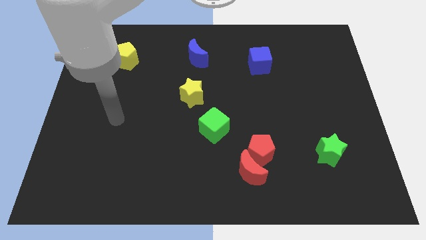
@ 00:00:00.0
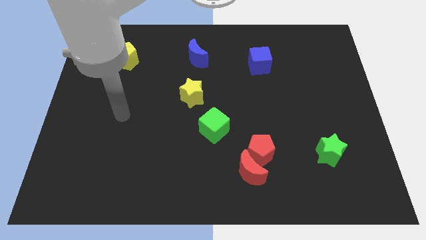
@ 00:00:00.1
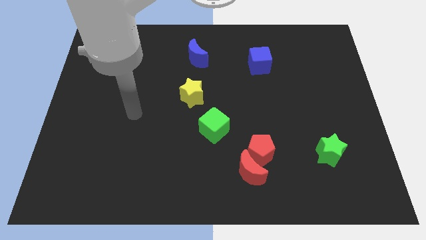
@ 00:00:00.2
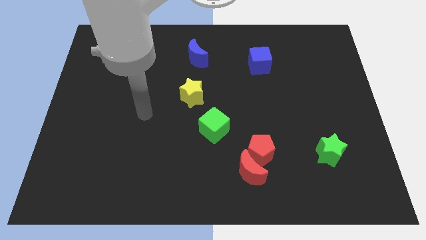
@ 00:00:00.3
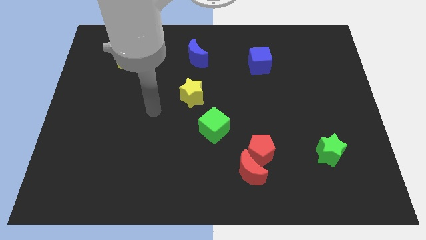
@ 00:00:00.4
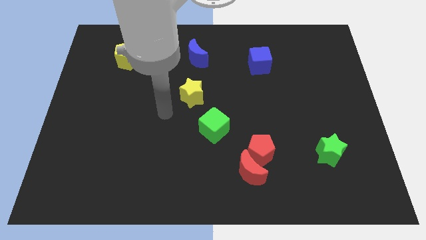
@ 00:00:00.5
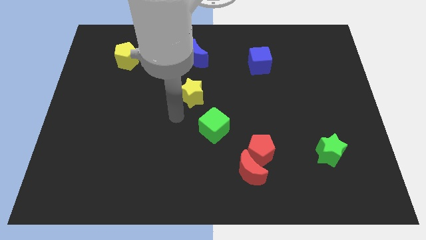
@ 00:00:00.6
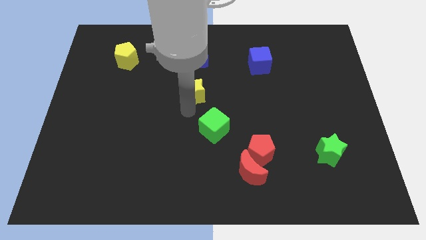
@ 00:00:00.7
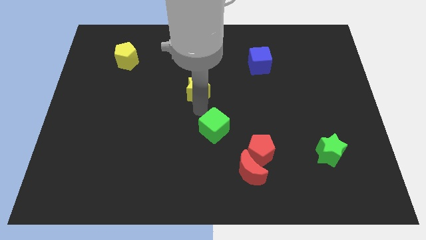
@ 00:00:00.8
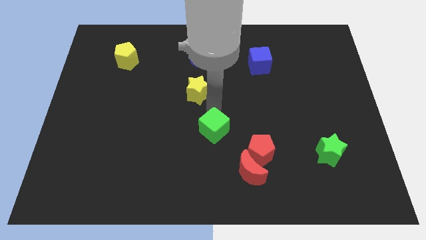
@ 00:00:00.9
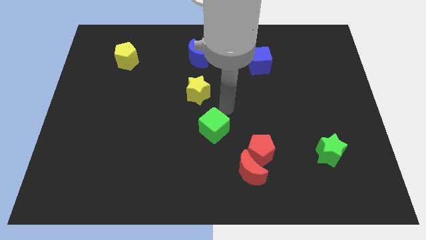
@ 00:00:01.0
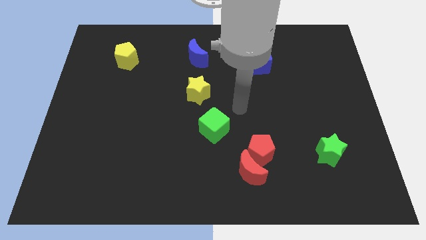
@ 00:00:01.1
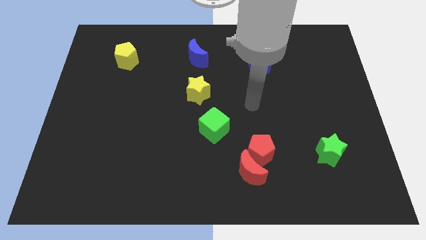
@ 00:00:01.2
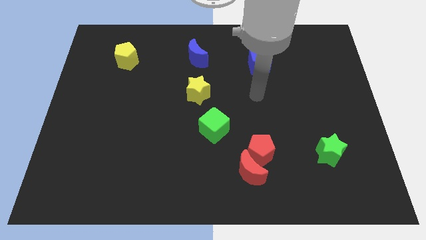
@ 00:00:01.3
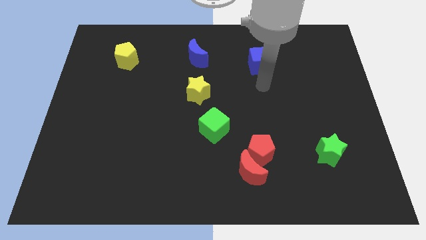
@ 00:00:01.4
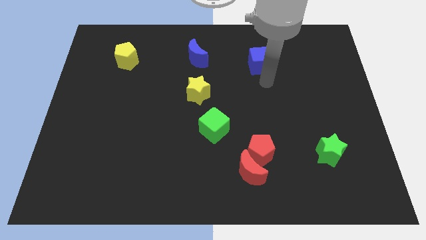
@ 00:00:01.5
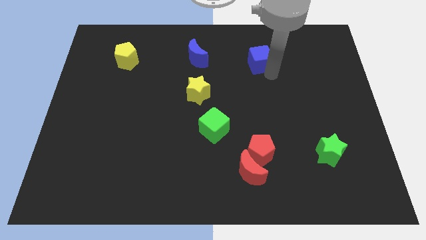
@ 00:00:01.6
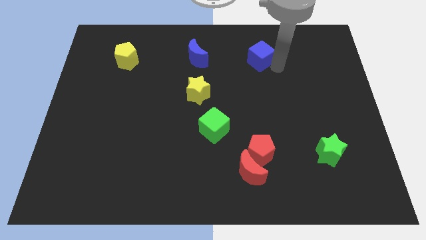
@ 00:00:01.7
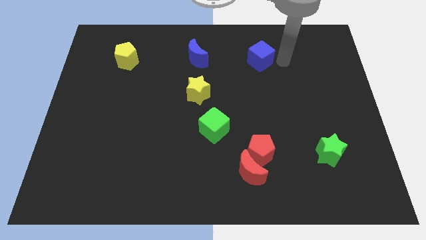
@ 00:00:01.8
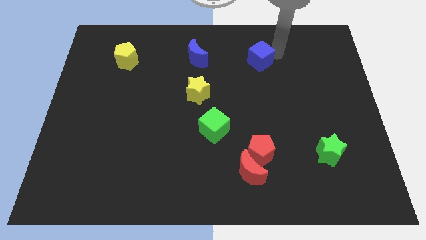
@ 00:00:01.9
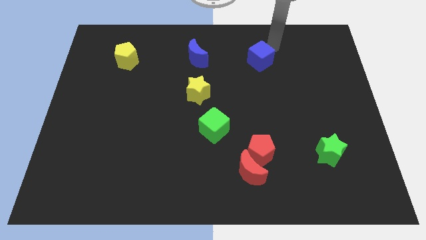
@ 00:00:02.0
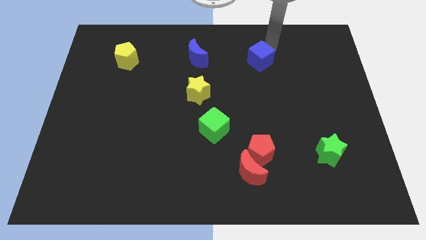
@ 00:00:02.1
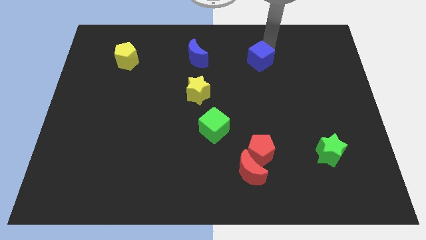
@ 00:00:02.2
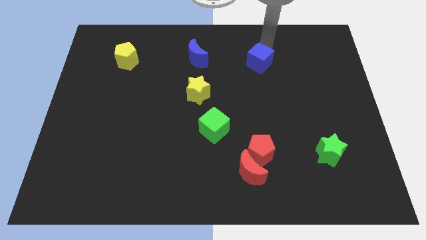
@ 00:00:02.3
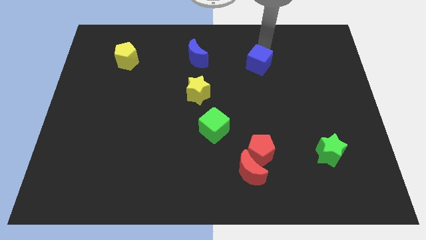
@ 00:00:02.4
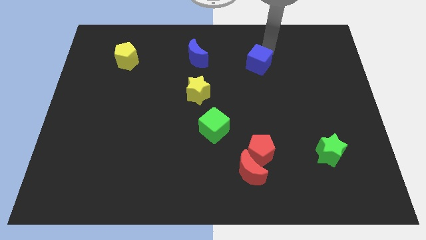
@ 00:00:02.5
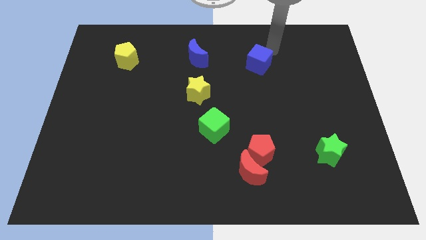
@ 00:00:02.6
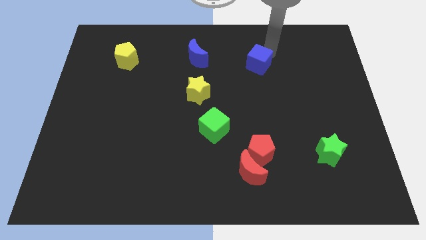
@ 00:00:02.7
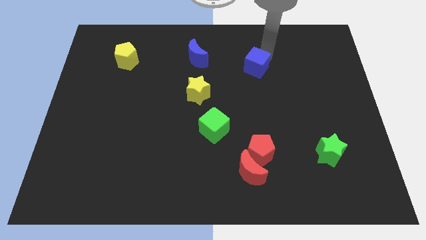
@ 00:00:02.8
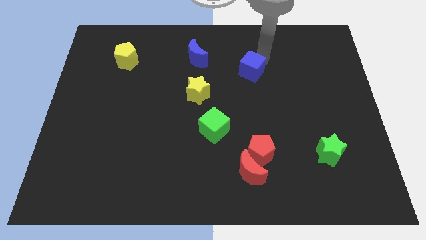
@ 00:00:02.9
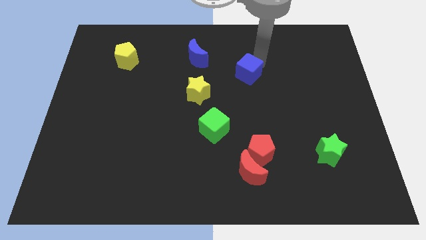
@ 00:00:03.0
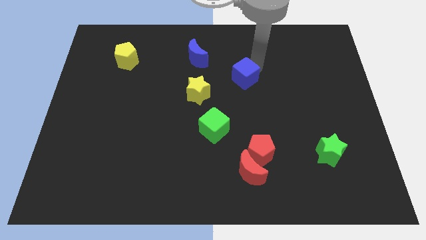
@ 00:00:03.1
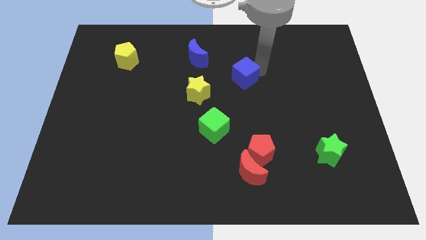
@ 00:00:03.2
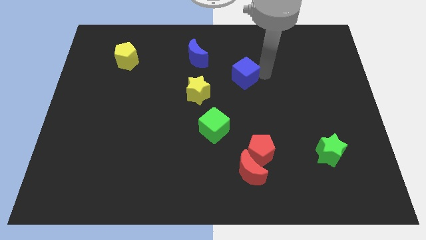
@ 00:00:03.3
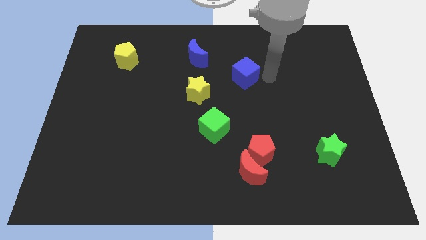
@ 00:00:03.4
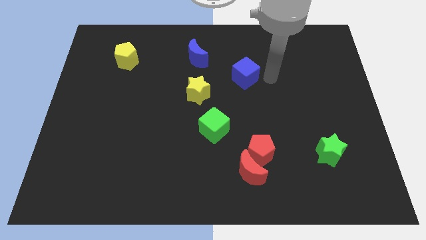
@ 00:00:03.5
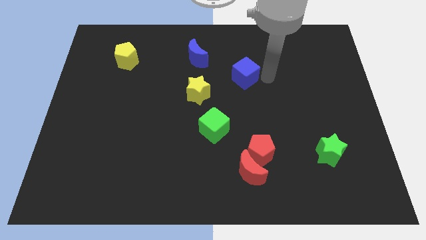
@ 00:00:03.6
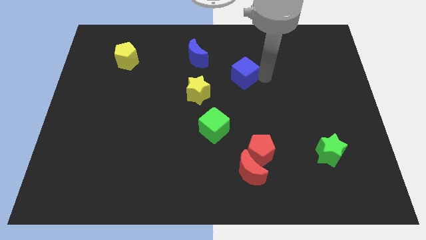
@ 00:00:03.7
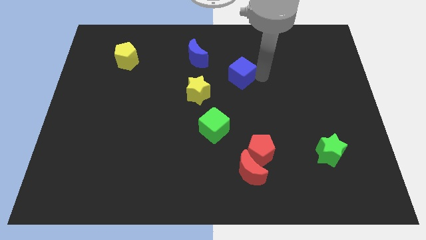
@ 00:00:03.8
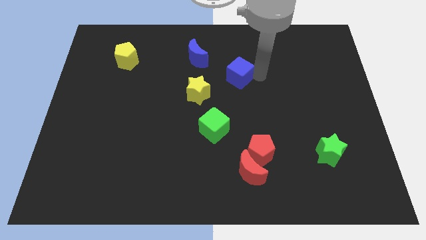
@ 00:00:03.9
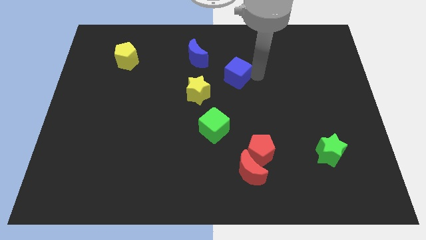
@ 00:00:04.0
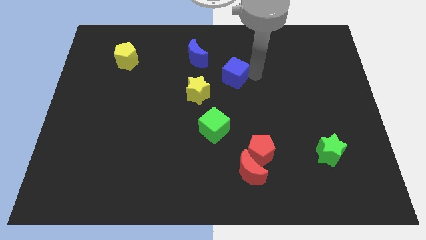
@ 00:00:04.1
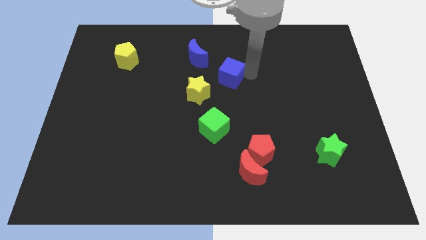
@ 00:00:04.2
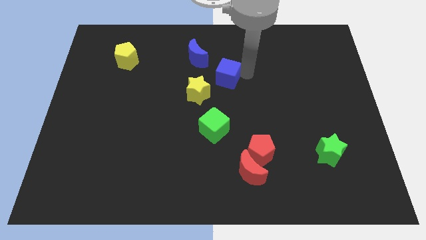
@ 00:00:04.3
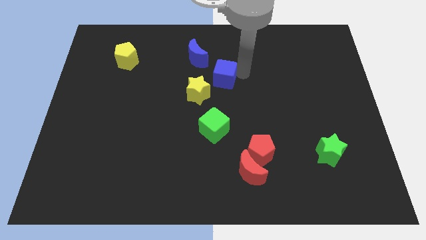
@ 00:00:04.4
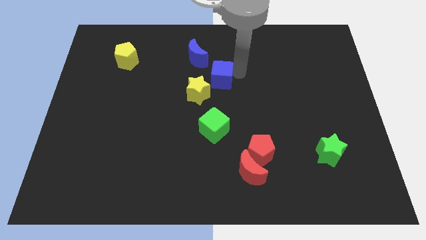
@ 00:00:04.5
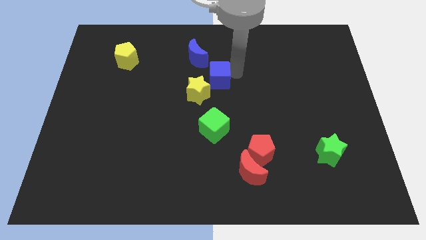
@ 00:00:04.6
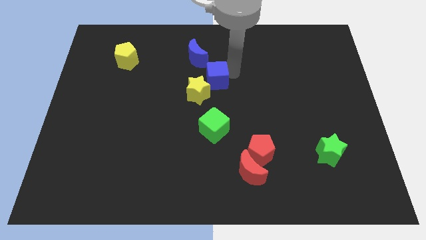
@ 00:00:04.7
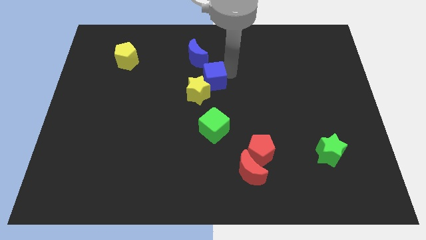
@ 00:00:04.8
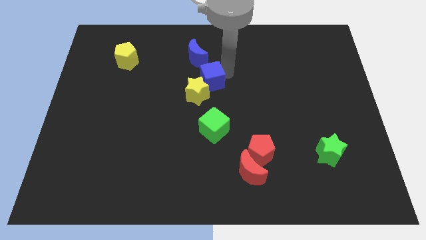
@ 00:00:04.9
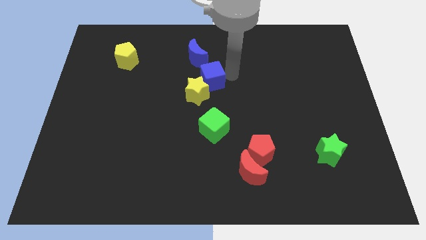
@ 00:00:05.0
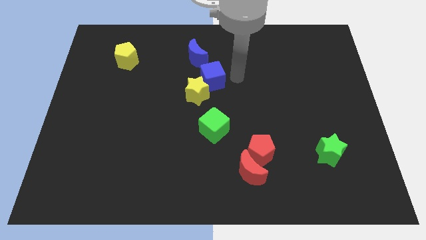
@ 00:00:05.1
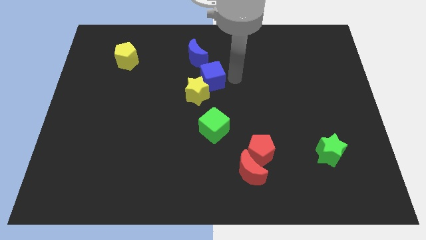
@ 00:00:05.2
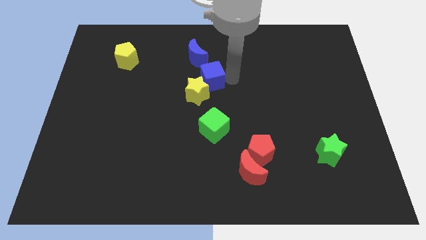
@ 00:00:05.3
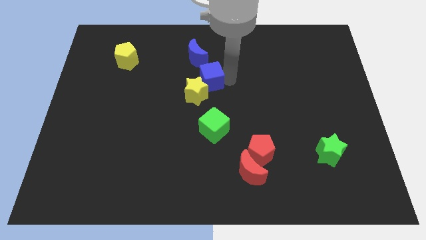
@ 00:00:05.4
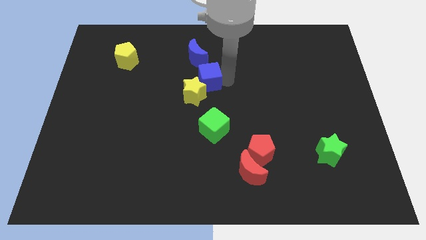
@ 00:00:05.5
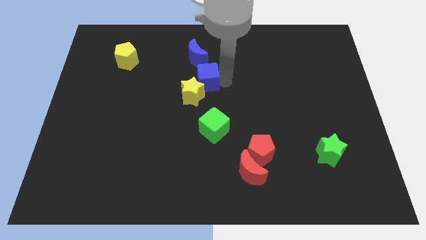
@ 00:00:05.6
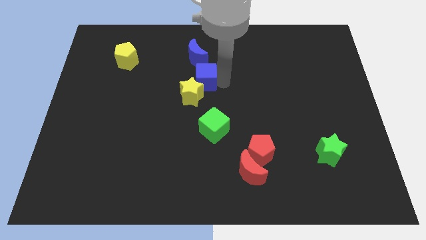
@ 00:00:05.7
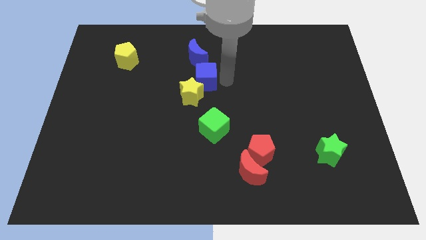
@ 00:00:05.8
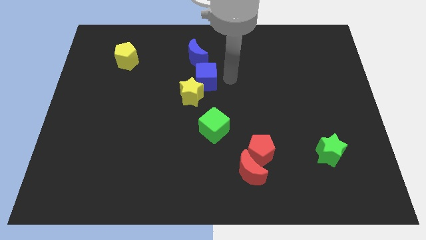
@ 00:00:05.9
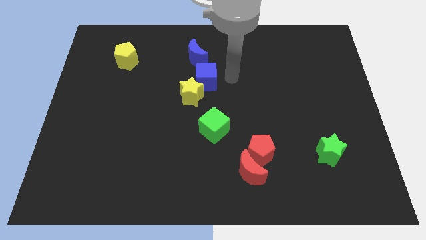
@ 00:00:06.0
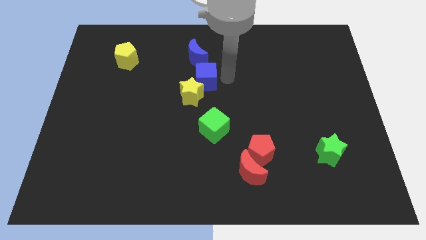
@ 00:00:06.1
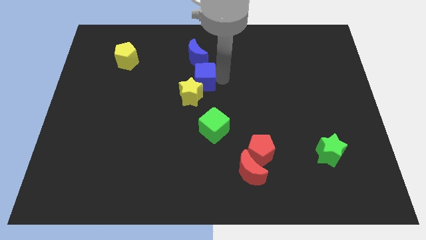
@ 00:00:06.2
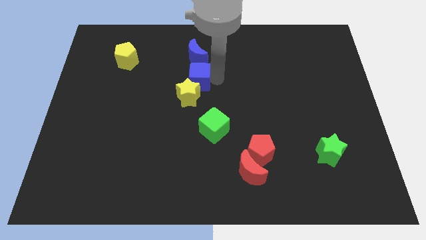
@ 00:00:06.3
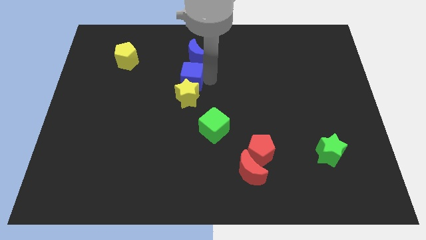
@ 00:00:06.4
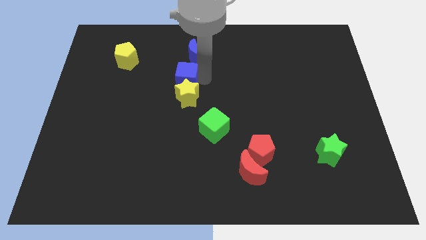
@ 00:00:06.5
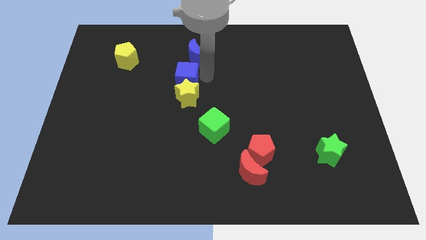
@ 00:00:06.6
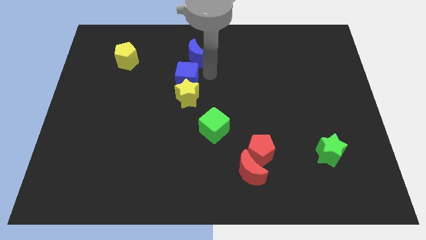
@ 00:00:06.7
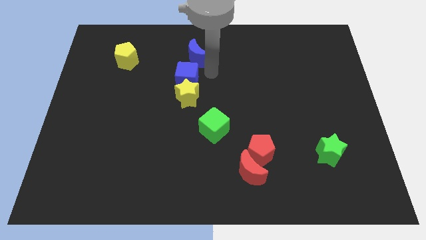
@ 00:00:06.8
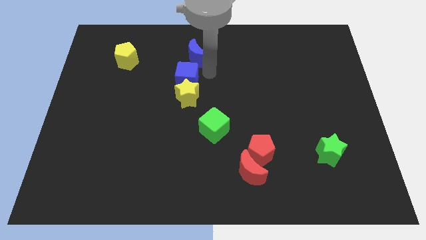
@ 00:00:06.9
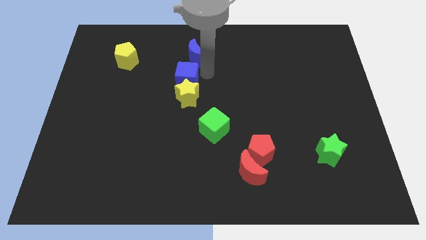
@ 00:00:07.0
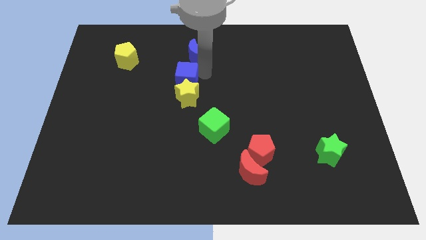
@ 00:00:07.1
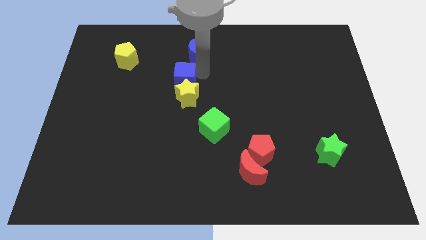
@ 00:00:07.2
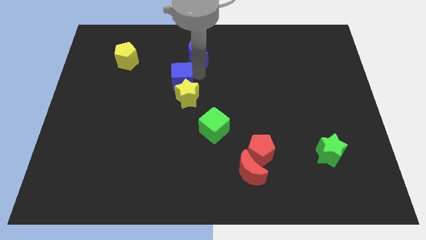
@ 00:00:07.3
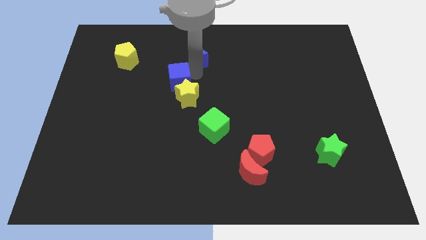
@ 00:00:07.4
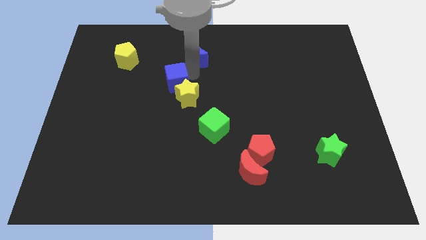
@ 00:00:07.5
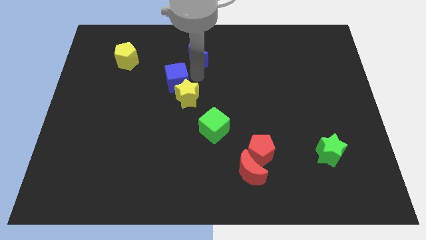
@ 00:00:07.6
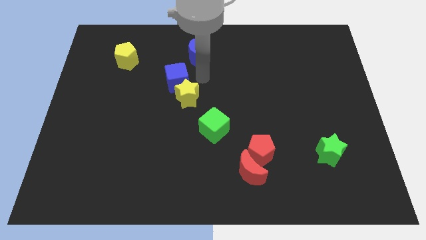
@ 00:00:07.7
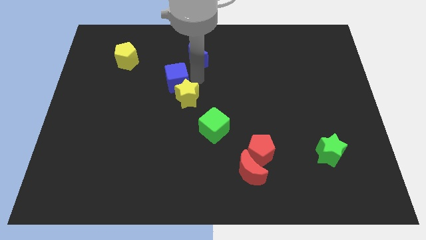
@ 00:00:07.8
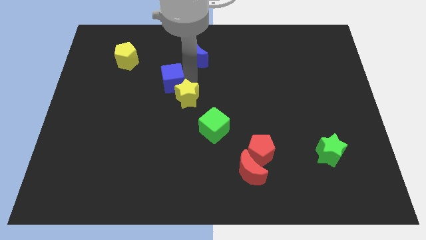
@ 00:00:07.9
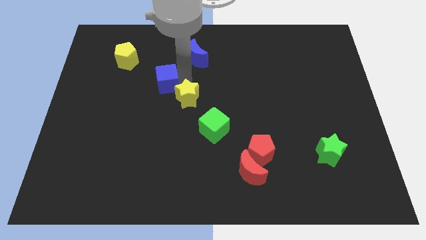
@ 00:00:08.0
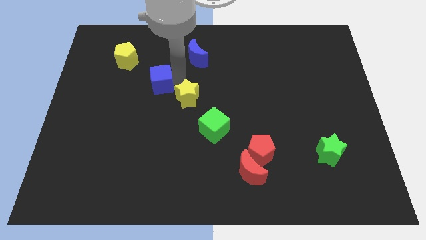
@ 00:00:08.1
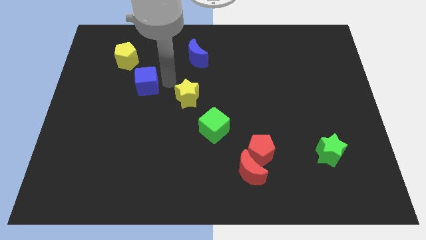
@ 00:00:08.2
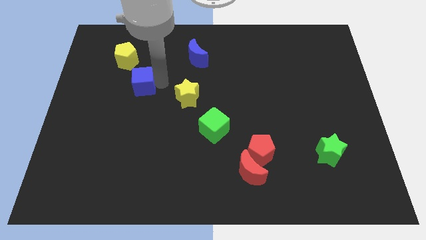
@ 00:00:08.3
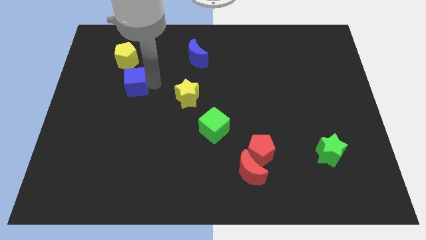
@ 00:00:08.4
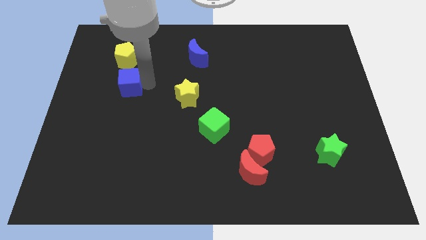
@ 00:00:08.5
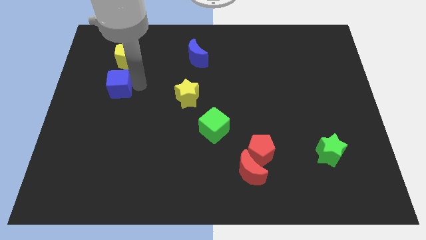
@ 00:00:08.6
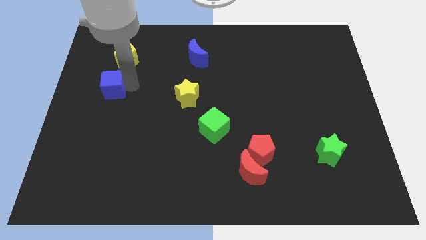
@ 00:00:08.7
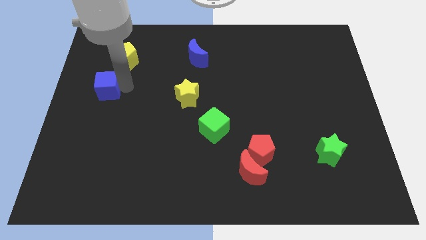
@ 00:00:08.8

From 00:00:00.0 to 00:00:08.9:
slide the blue cube to the left side
